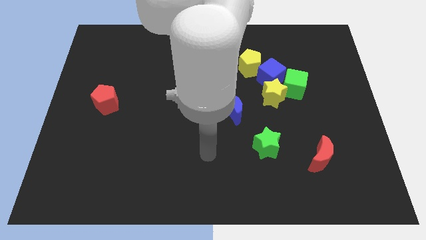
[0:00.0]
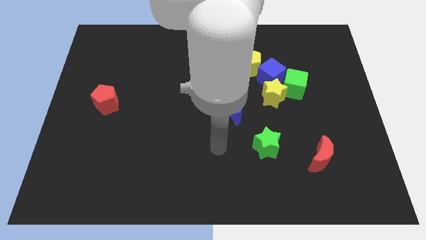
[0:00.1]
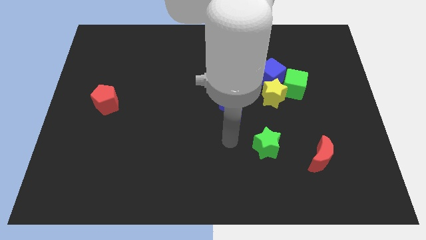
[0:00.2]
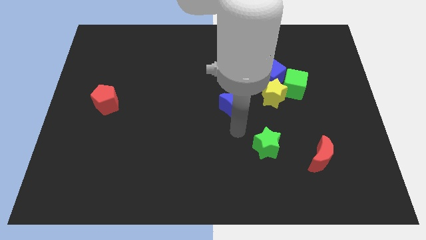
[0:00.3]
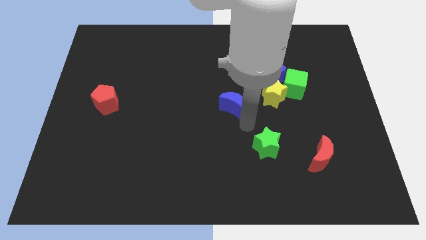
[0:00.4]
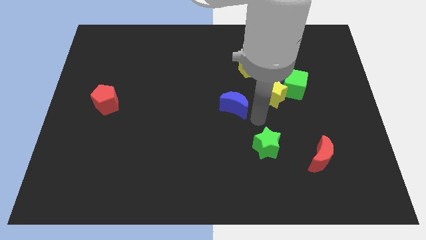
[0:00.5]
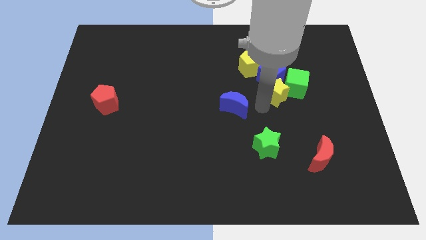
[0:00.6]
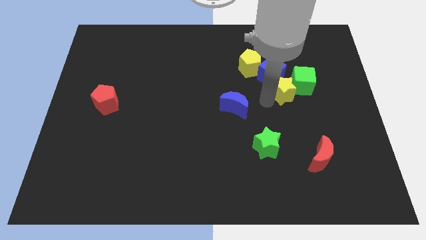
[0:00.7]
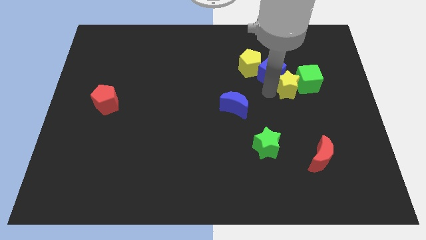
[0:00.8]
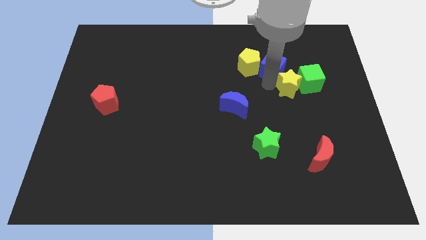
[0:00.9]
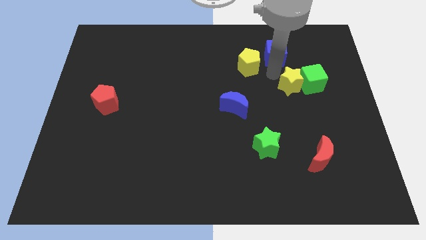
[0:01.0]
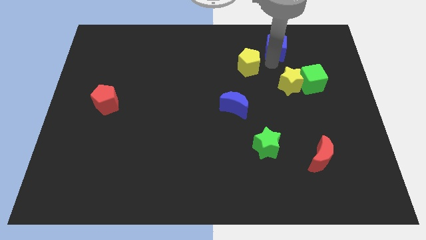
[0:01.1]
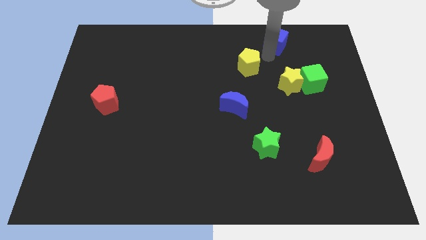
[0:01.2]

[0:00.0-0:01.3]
move the yellow pentagon away from the blue cube

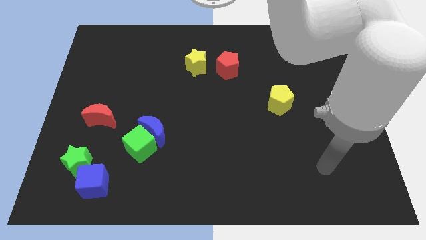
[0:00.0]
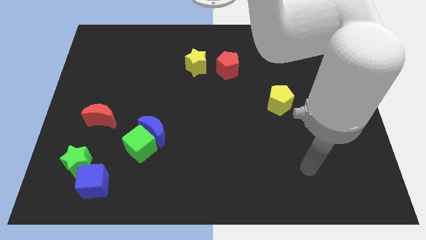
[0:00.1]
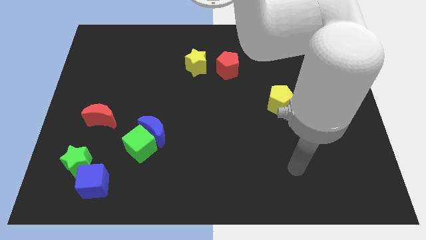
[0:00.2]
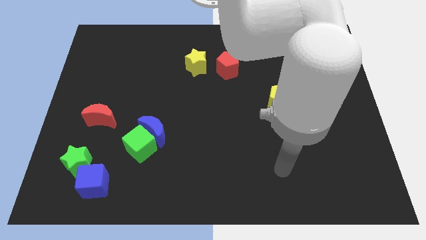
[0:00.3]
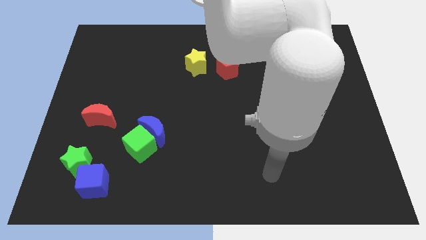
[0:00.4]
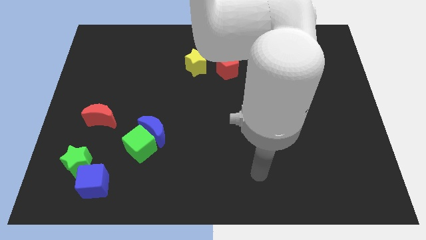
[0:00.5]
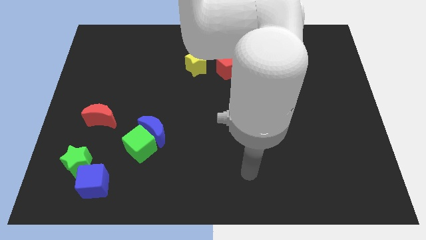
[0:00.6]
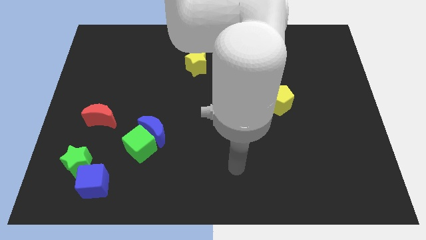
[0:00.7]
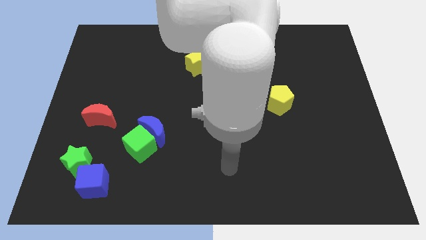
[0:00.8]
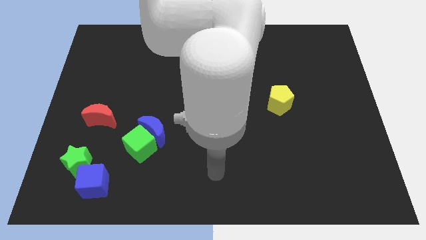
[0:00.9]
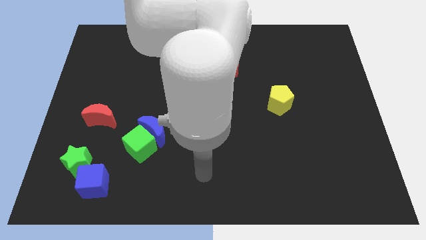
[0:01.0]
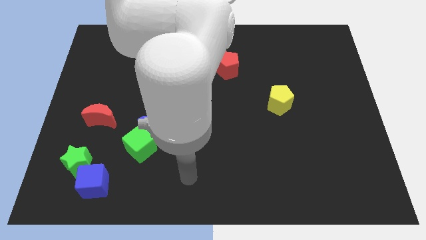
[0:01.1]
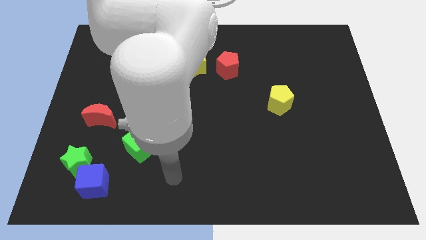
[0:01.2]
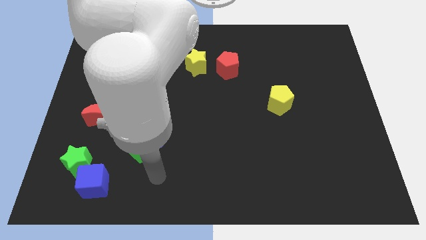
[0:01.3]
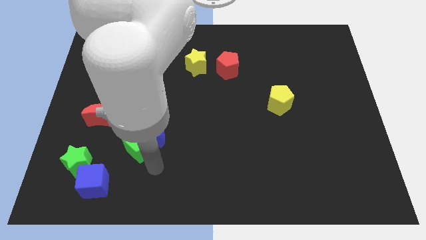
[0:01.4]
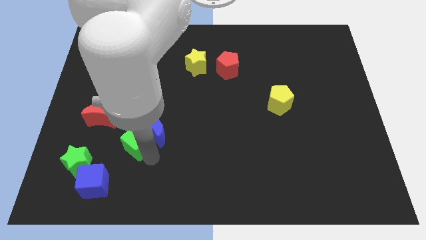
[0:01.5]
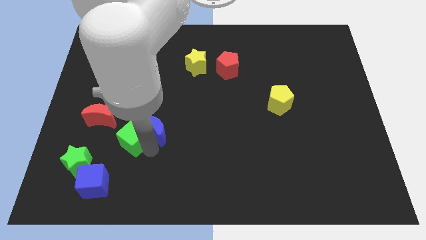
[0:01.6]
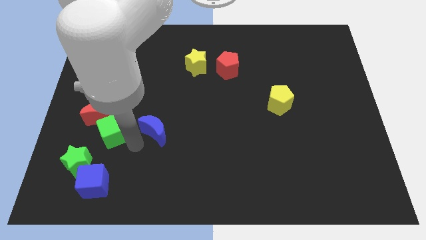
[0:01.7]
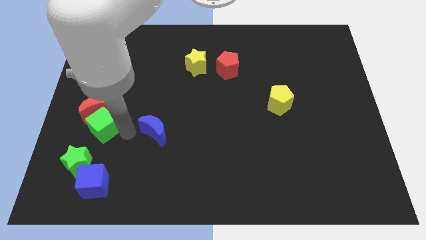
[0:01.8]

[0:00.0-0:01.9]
move the blue moon away from the green cube

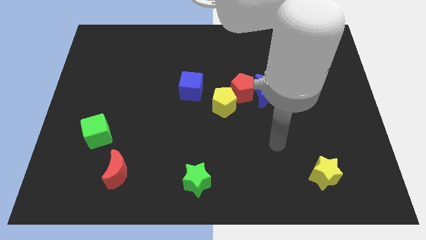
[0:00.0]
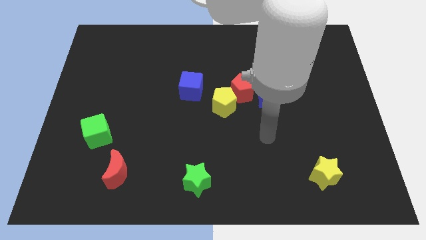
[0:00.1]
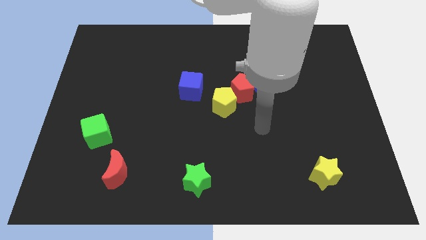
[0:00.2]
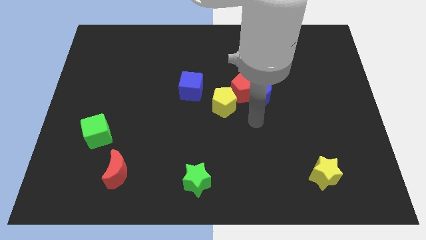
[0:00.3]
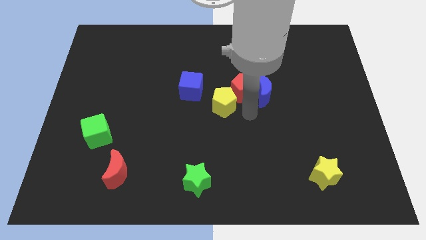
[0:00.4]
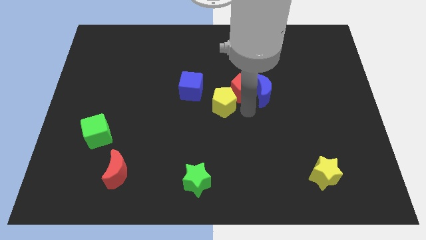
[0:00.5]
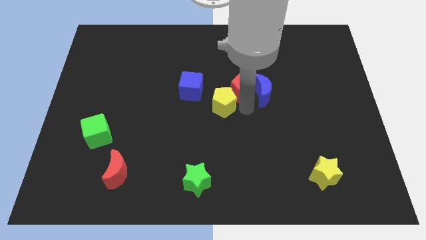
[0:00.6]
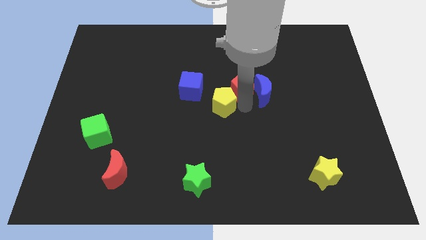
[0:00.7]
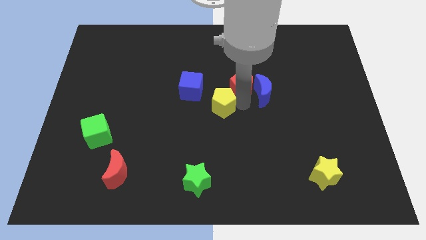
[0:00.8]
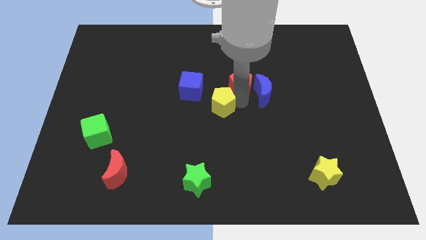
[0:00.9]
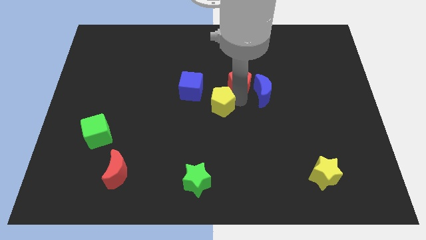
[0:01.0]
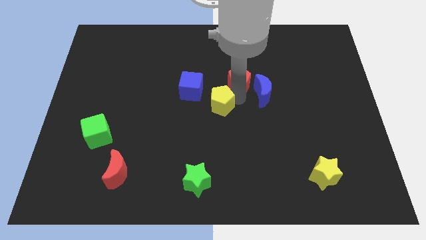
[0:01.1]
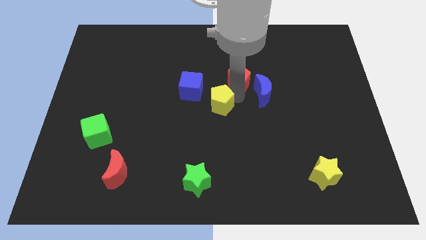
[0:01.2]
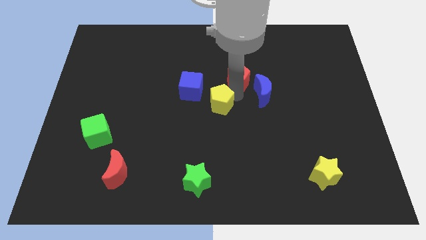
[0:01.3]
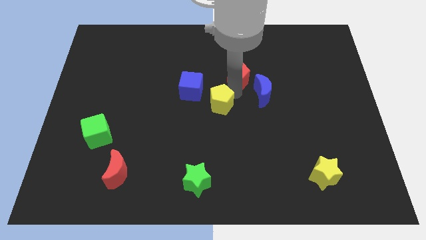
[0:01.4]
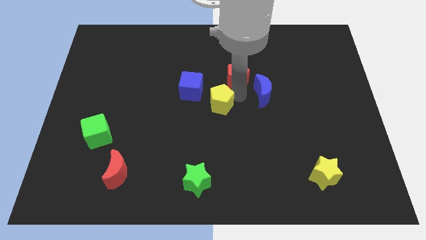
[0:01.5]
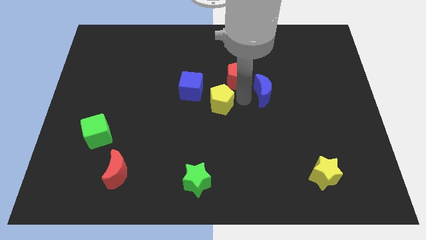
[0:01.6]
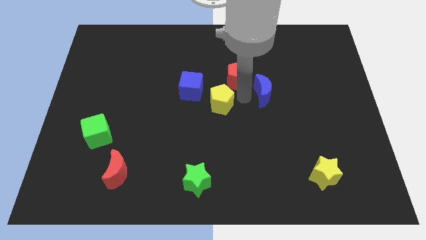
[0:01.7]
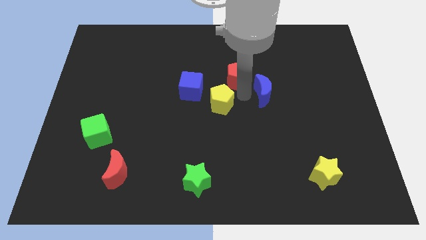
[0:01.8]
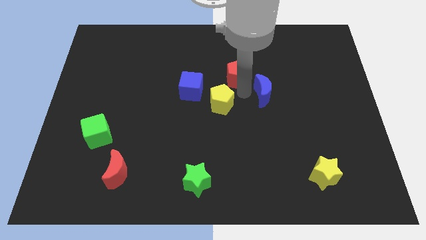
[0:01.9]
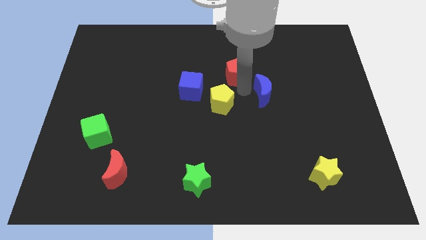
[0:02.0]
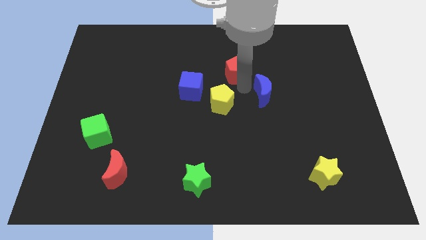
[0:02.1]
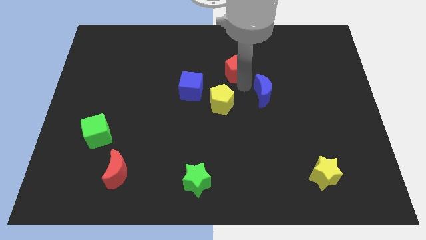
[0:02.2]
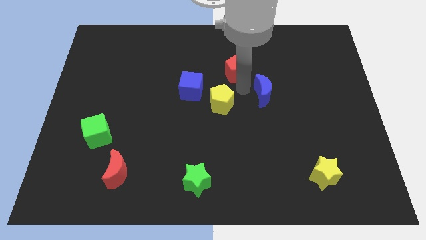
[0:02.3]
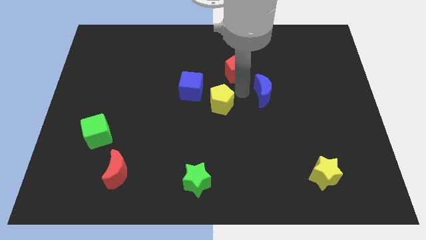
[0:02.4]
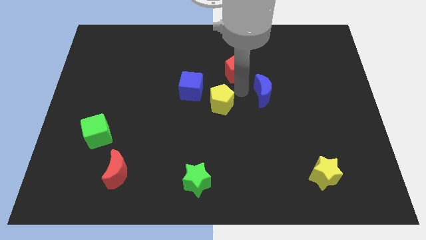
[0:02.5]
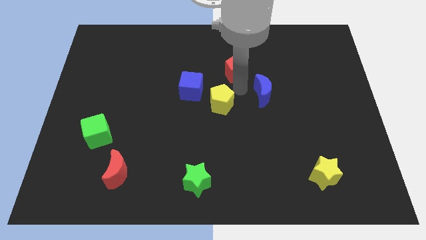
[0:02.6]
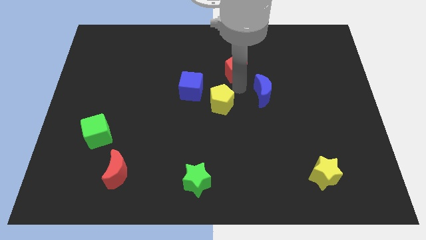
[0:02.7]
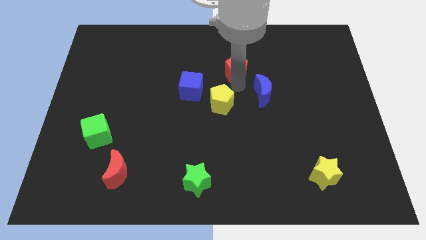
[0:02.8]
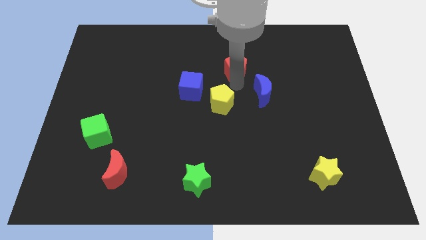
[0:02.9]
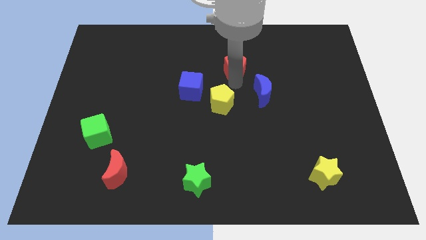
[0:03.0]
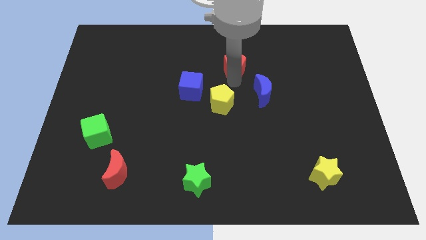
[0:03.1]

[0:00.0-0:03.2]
pull the red pentagon apart from the blue moon and yellow pentagon

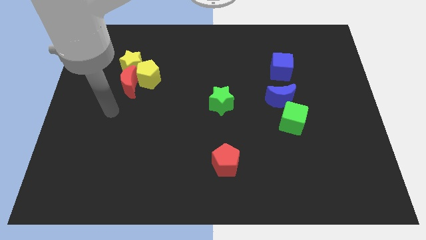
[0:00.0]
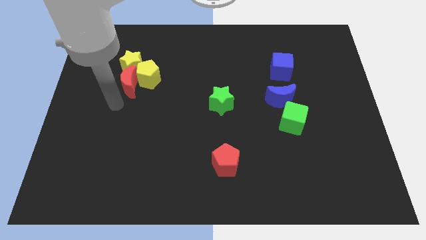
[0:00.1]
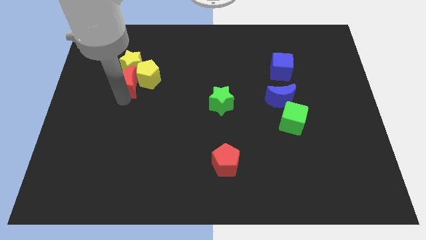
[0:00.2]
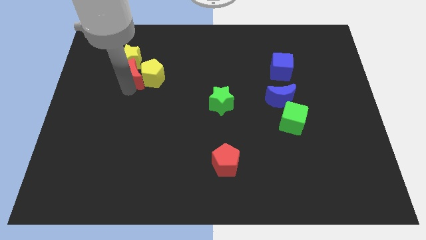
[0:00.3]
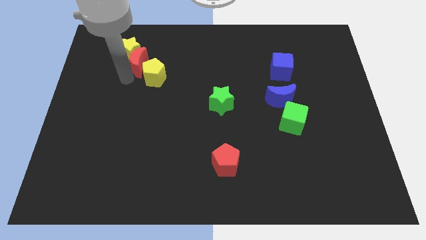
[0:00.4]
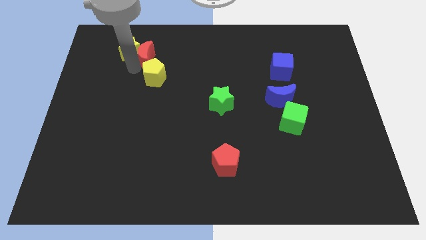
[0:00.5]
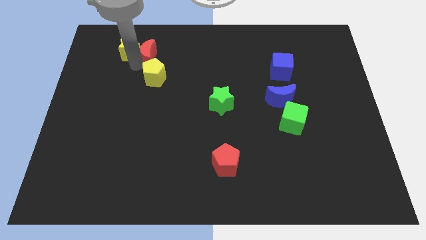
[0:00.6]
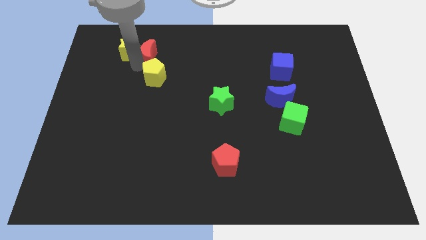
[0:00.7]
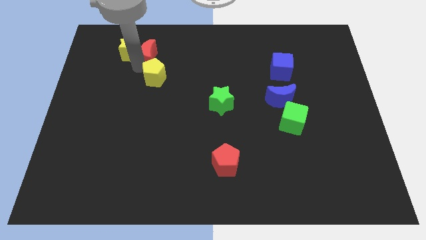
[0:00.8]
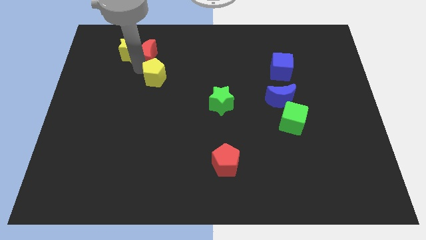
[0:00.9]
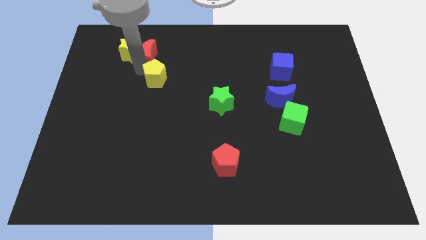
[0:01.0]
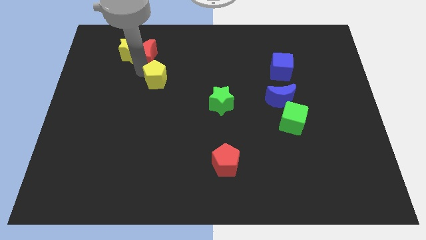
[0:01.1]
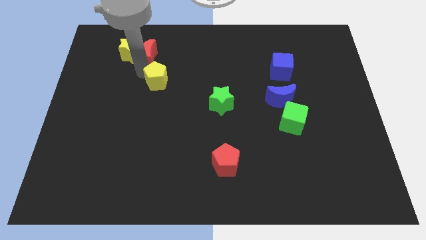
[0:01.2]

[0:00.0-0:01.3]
move the yellow pentagon away from the red moon and yellow star

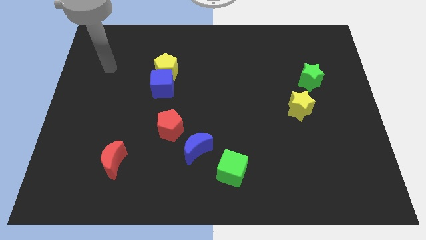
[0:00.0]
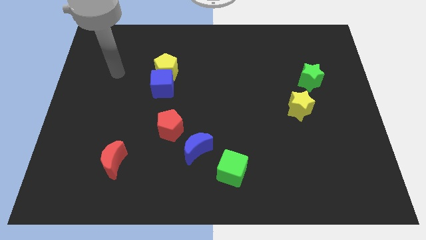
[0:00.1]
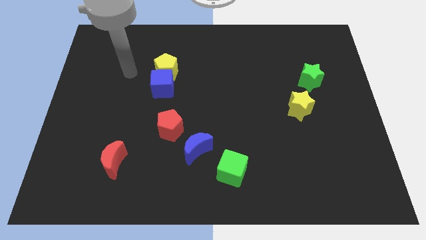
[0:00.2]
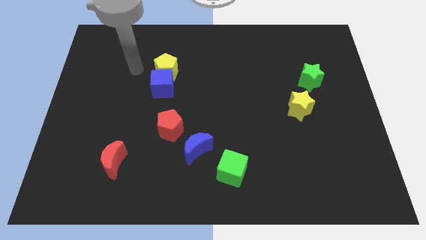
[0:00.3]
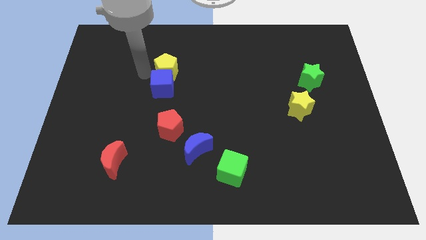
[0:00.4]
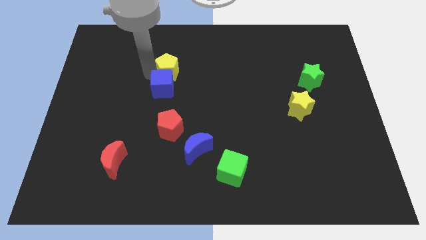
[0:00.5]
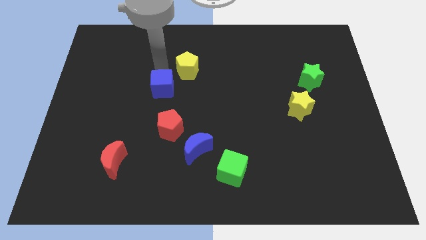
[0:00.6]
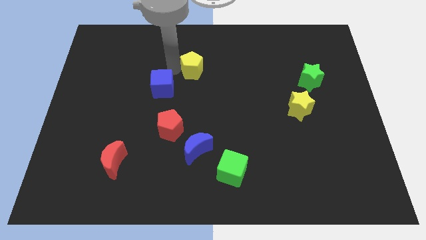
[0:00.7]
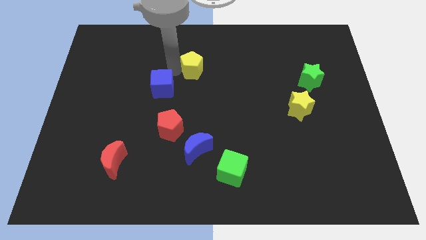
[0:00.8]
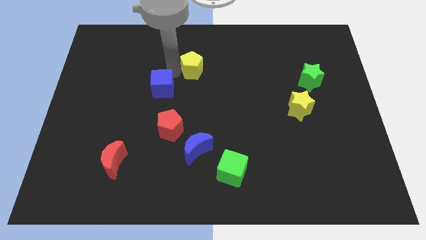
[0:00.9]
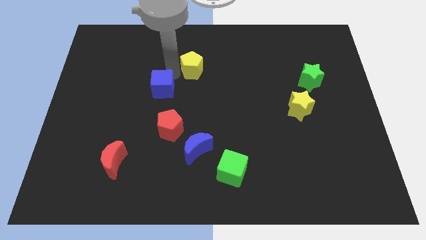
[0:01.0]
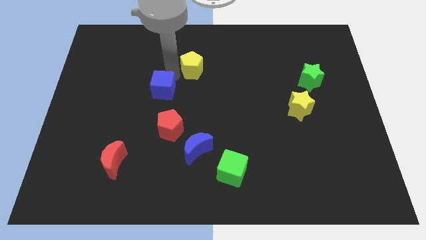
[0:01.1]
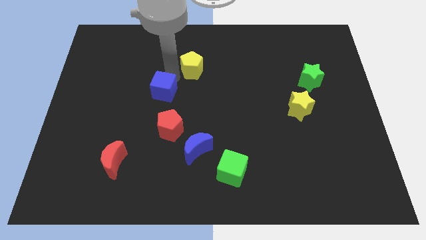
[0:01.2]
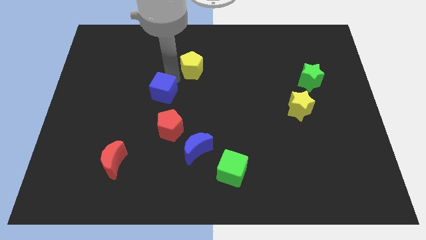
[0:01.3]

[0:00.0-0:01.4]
pull the blue cube apart from the yellow pentagon
